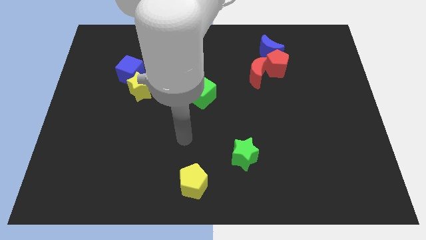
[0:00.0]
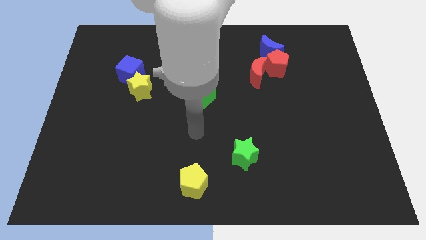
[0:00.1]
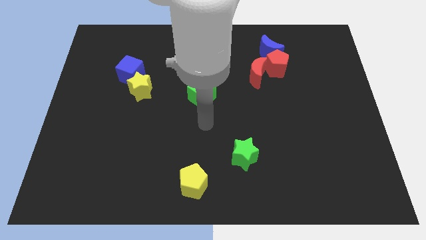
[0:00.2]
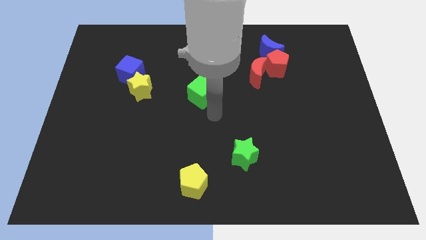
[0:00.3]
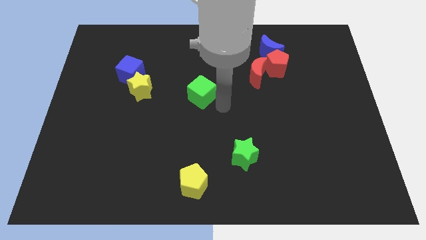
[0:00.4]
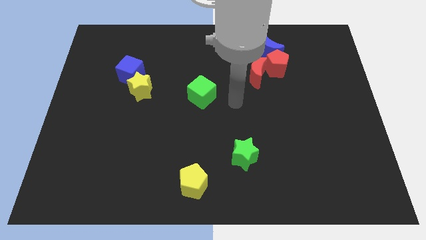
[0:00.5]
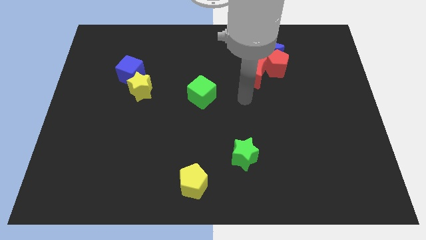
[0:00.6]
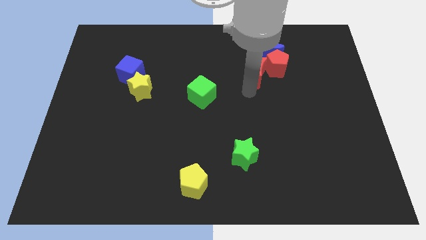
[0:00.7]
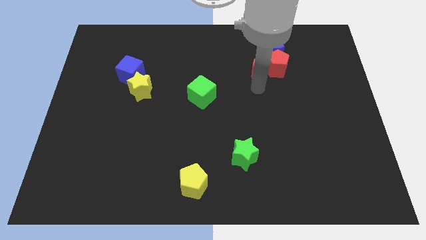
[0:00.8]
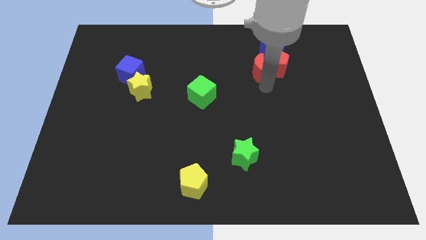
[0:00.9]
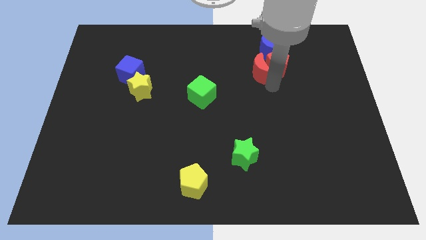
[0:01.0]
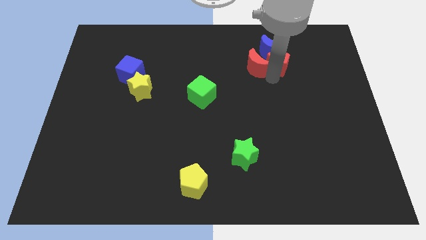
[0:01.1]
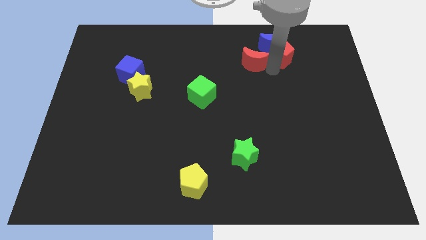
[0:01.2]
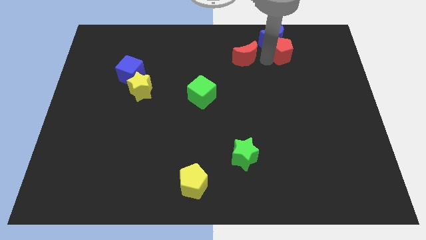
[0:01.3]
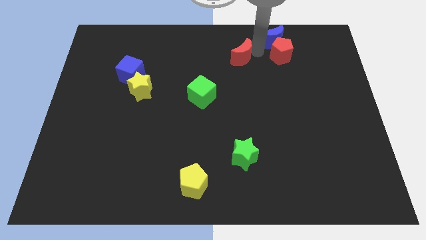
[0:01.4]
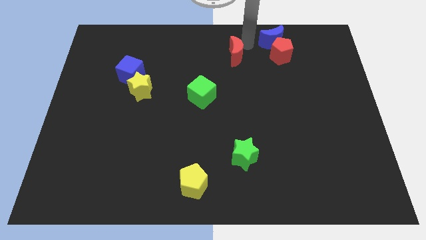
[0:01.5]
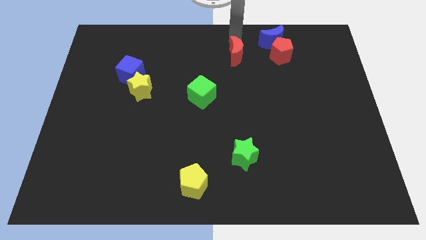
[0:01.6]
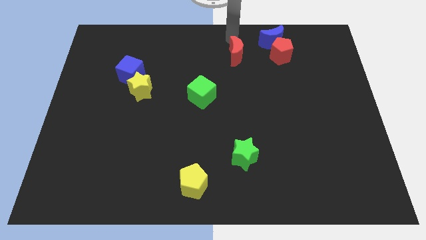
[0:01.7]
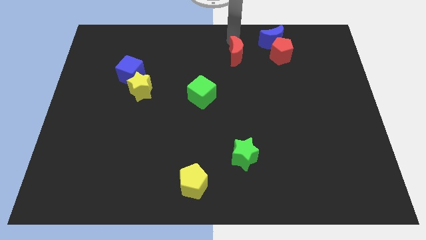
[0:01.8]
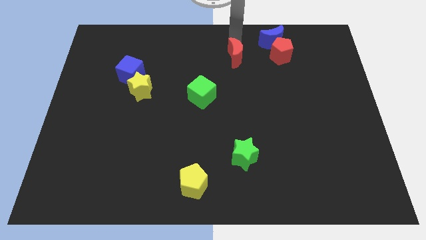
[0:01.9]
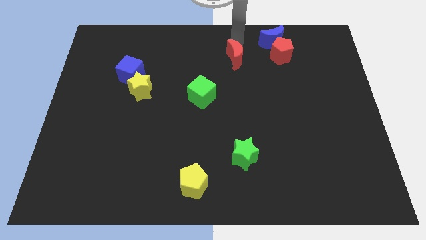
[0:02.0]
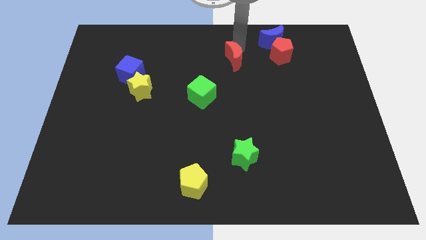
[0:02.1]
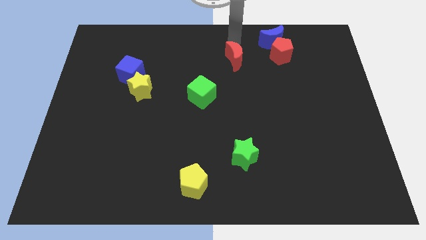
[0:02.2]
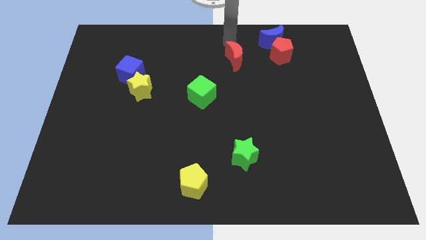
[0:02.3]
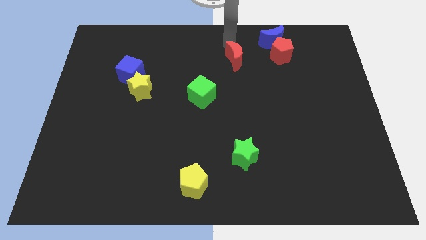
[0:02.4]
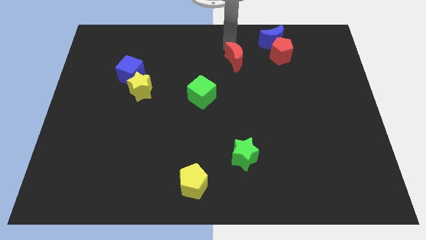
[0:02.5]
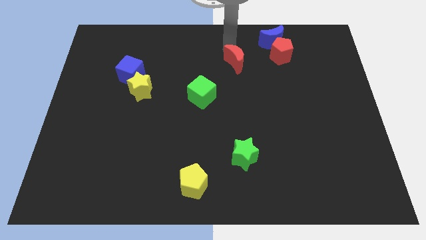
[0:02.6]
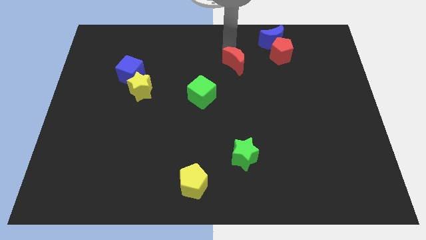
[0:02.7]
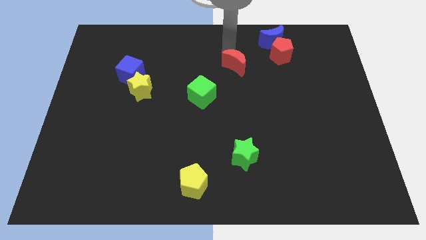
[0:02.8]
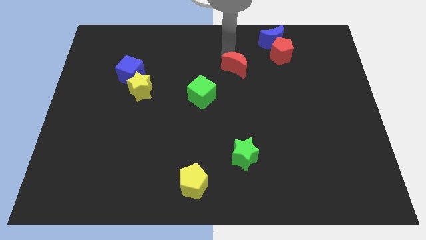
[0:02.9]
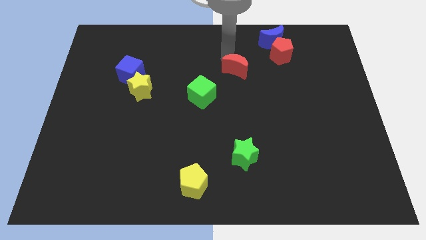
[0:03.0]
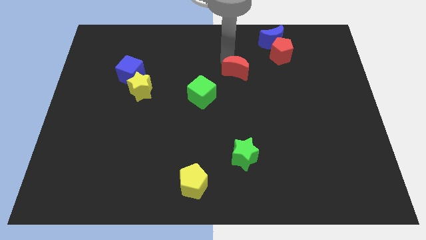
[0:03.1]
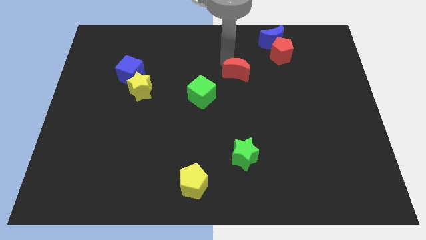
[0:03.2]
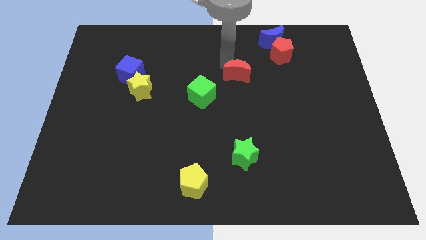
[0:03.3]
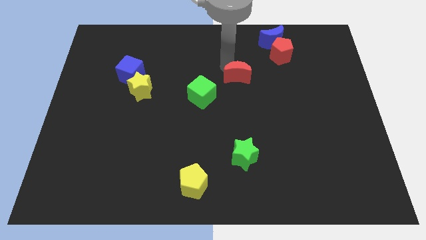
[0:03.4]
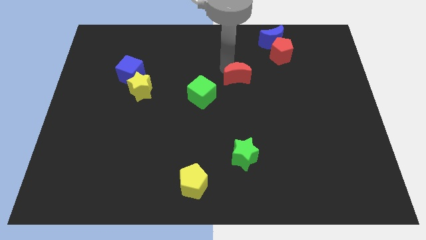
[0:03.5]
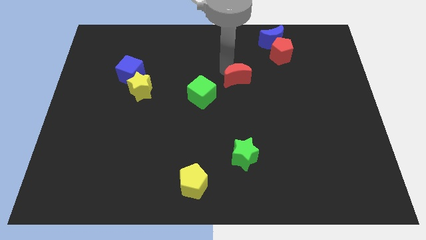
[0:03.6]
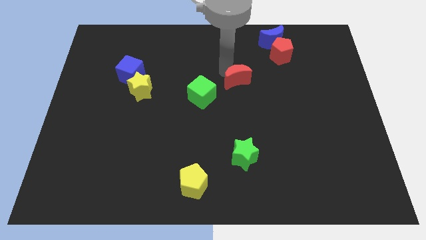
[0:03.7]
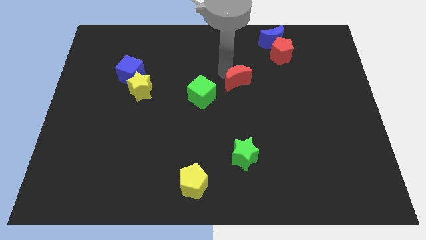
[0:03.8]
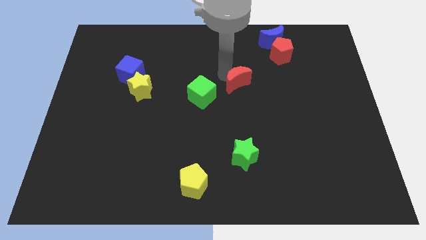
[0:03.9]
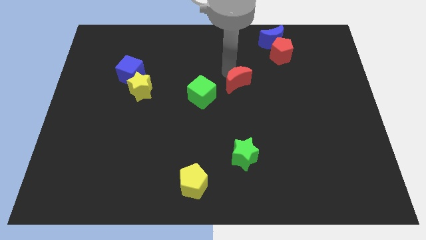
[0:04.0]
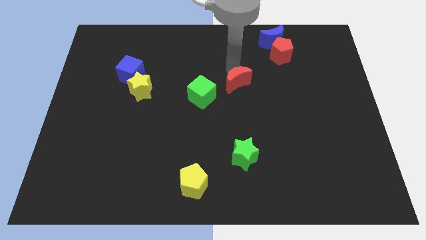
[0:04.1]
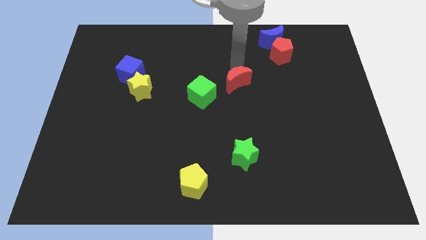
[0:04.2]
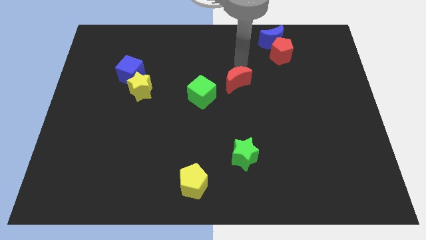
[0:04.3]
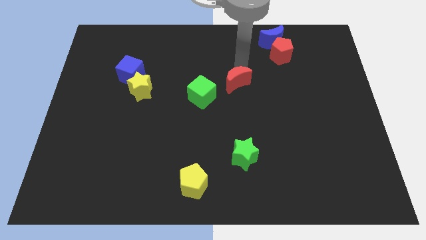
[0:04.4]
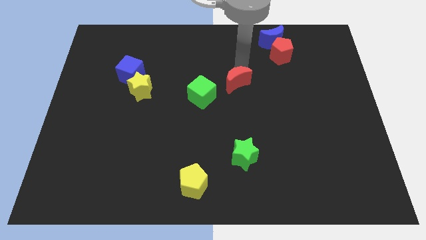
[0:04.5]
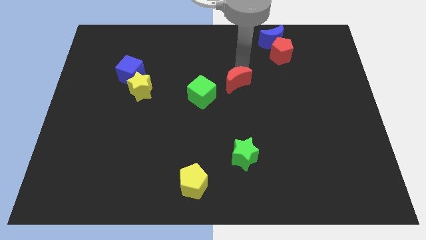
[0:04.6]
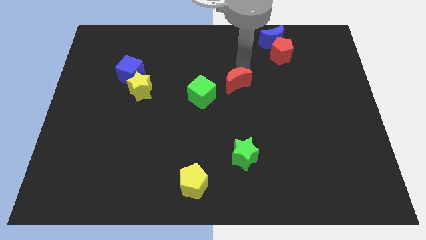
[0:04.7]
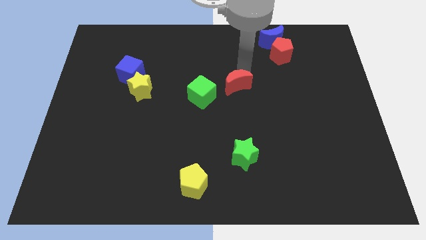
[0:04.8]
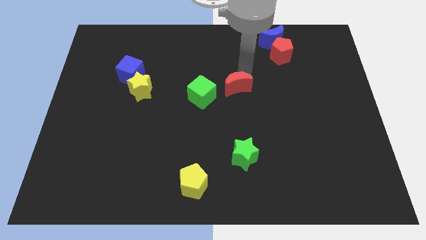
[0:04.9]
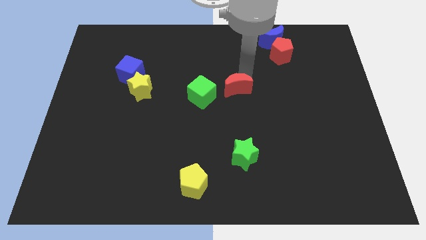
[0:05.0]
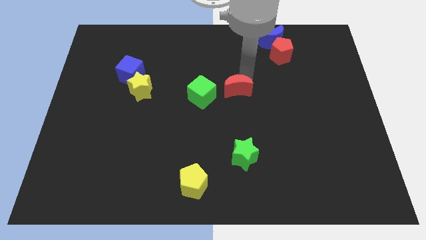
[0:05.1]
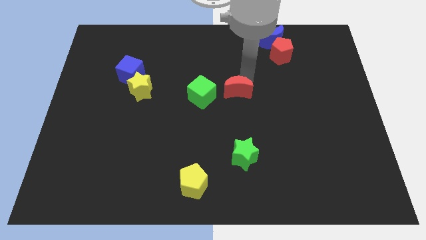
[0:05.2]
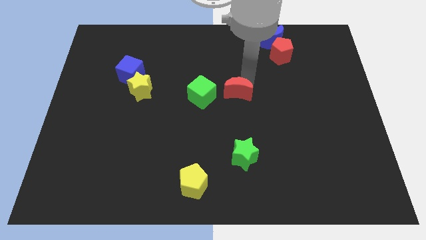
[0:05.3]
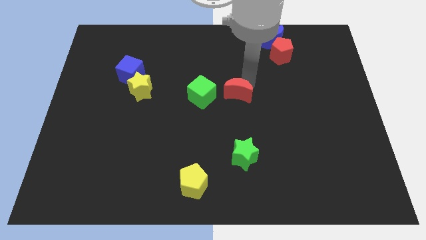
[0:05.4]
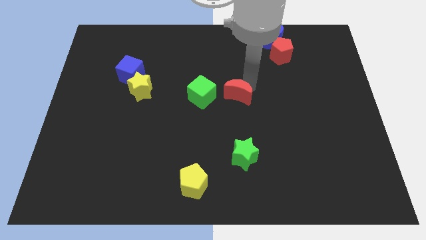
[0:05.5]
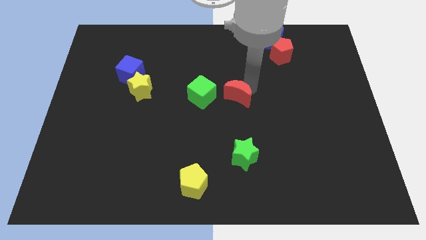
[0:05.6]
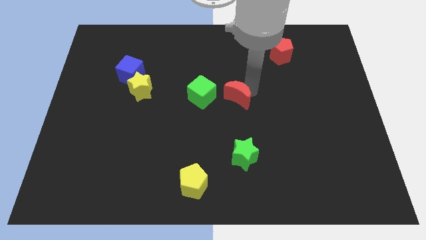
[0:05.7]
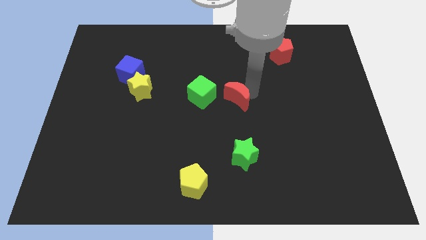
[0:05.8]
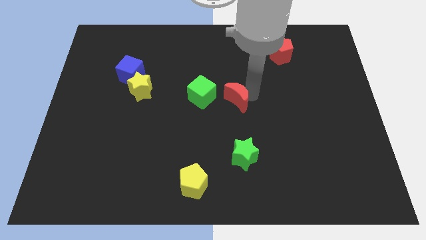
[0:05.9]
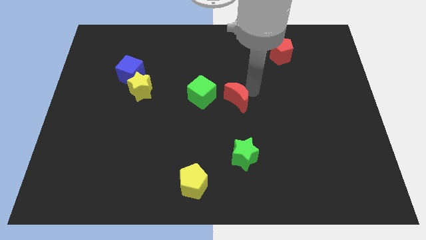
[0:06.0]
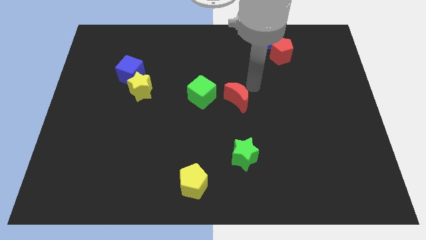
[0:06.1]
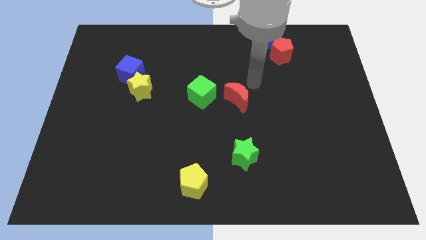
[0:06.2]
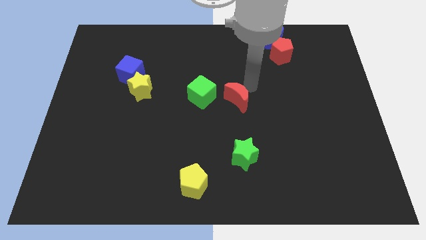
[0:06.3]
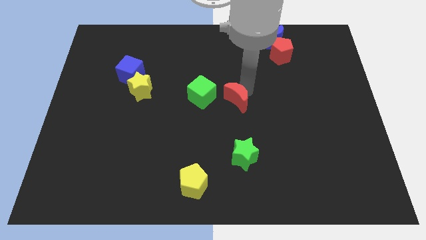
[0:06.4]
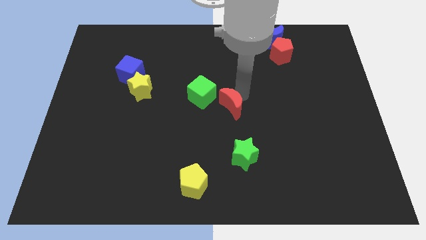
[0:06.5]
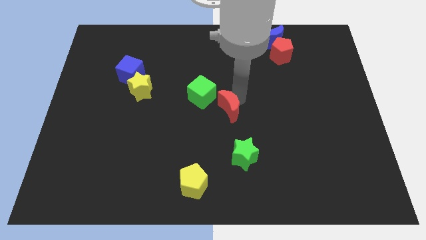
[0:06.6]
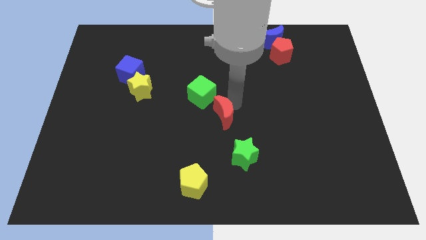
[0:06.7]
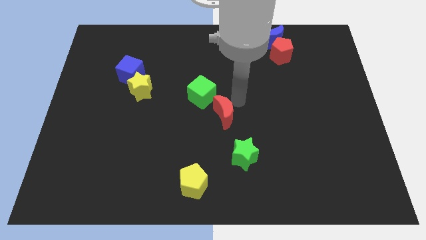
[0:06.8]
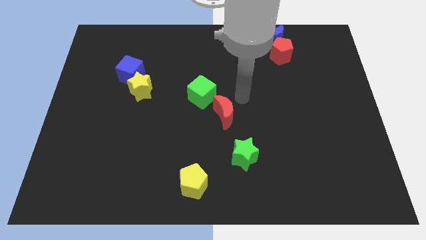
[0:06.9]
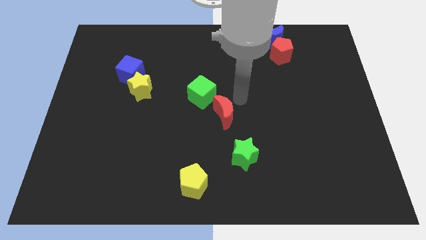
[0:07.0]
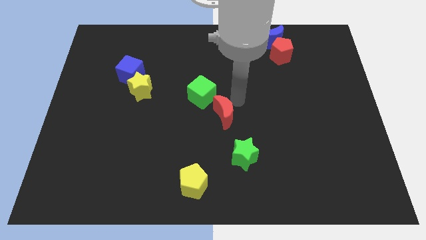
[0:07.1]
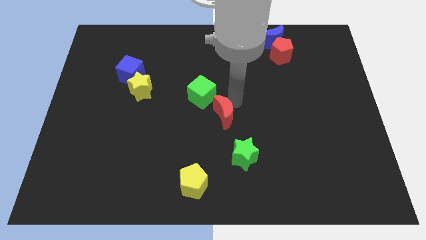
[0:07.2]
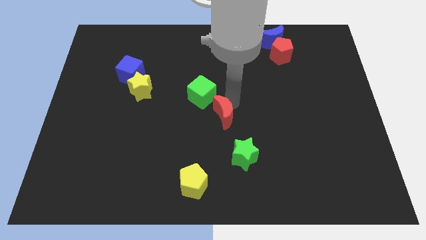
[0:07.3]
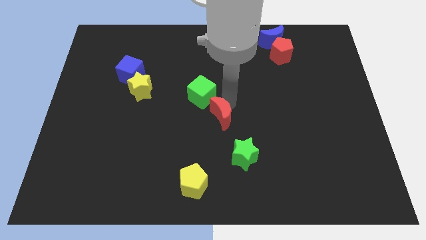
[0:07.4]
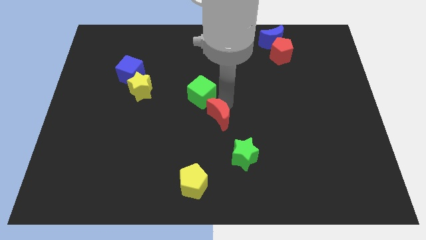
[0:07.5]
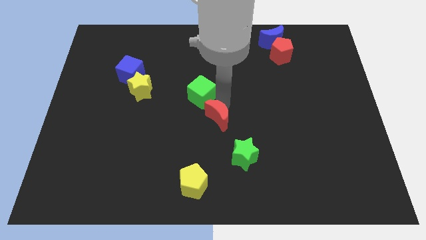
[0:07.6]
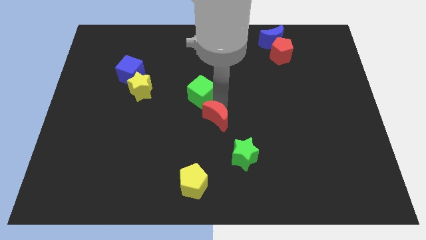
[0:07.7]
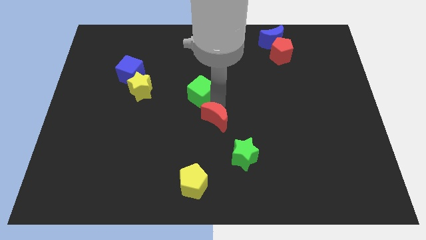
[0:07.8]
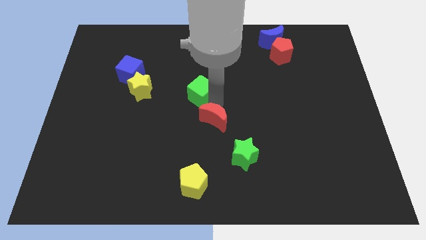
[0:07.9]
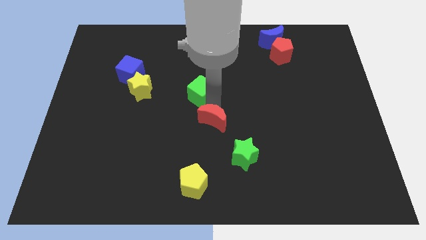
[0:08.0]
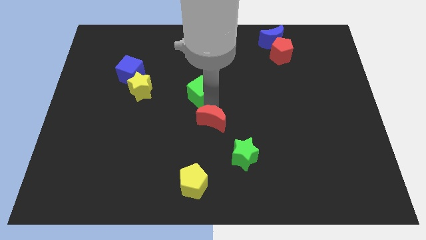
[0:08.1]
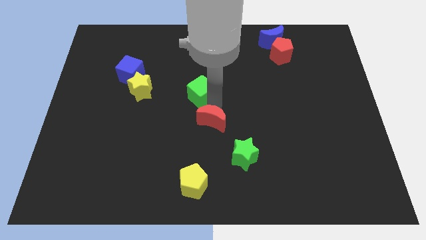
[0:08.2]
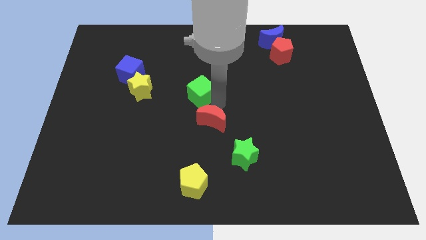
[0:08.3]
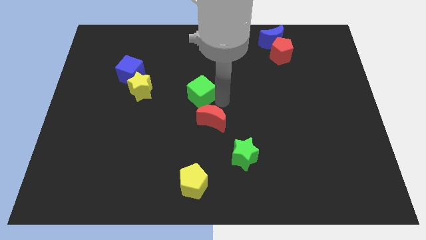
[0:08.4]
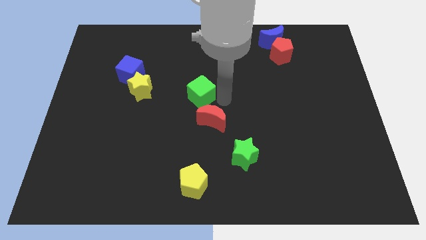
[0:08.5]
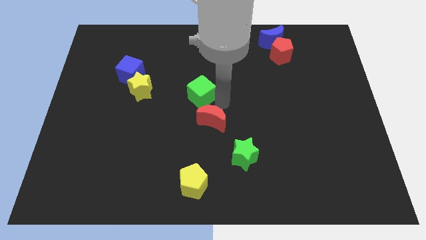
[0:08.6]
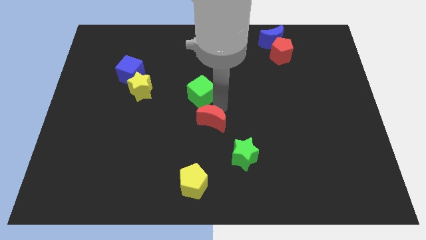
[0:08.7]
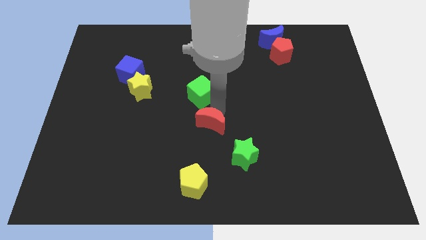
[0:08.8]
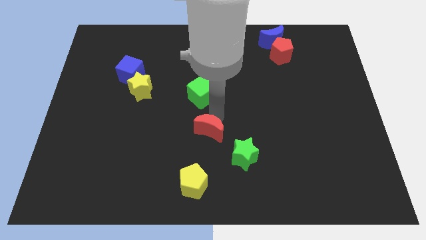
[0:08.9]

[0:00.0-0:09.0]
push the red moon down and then to the left
